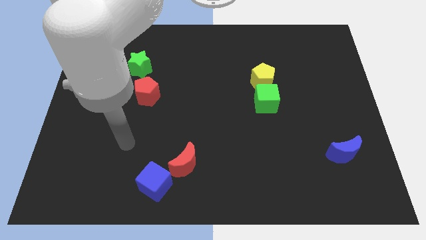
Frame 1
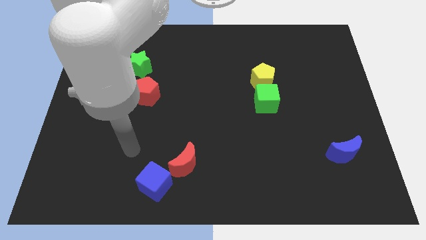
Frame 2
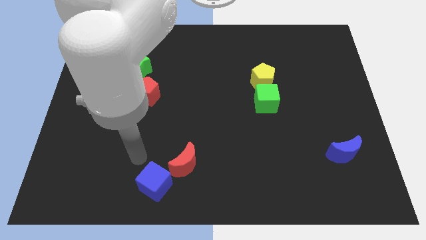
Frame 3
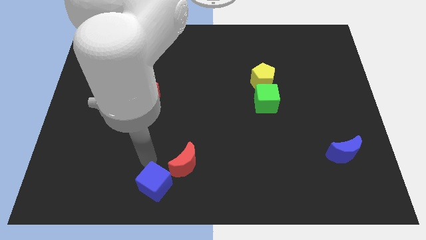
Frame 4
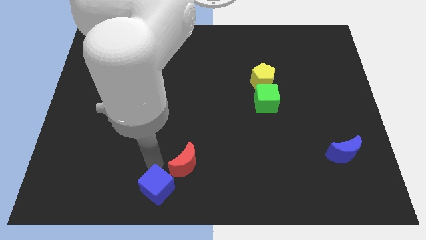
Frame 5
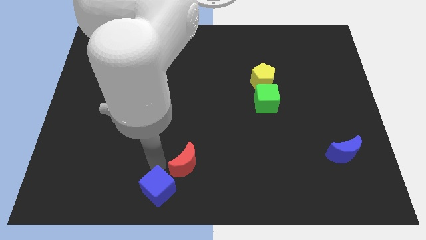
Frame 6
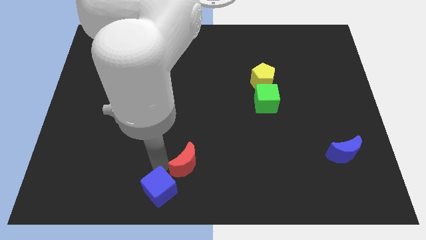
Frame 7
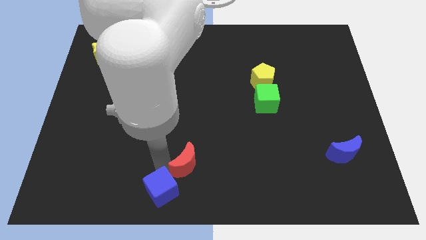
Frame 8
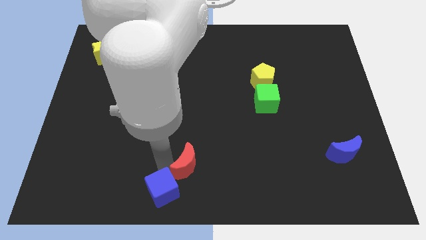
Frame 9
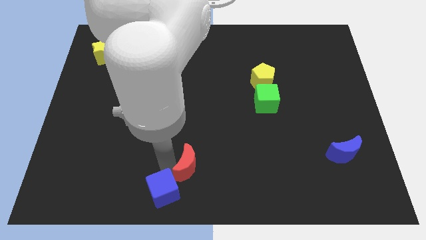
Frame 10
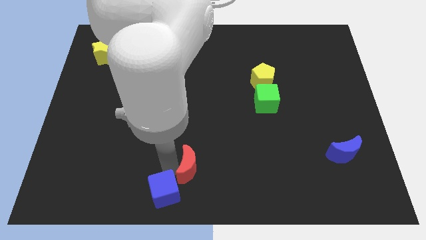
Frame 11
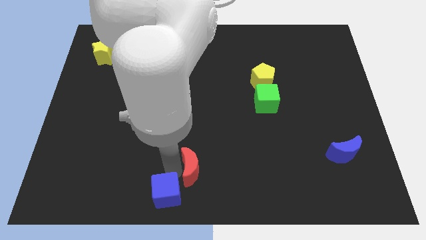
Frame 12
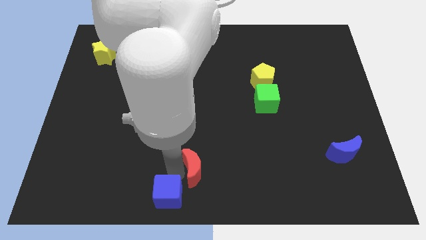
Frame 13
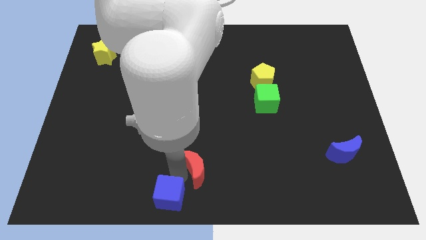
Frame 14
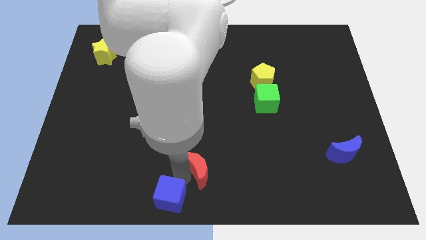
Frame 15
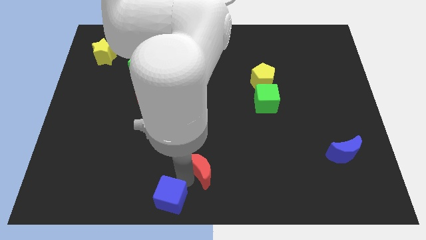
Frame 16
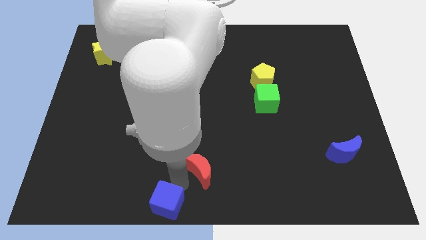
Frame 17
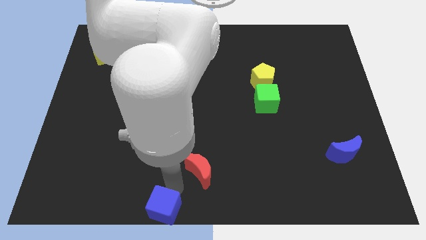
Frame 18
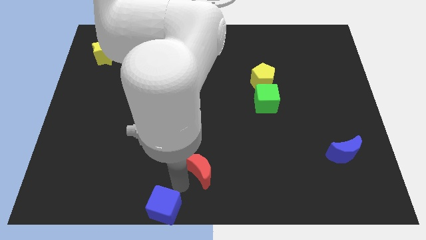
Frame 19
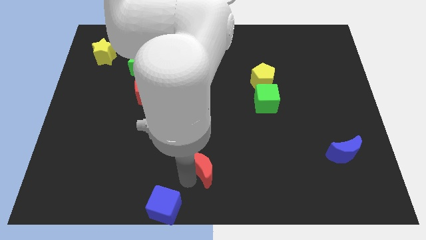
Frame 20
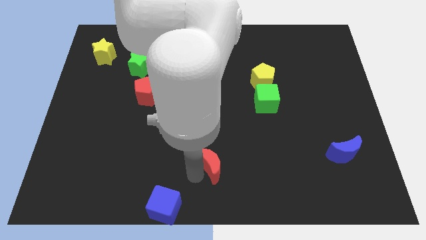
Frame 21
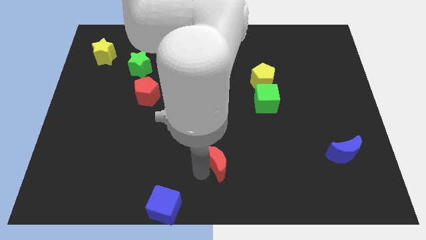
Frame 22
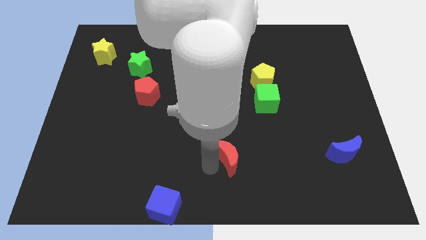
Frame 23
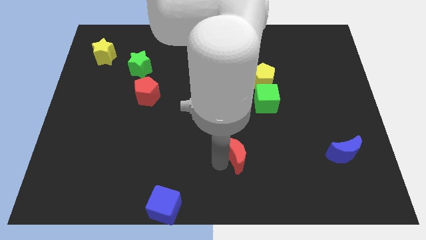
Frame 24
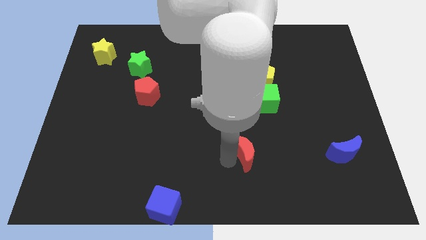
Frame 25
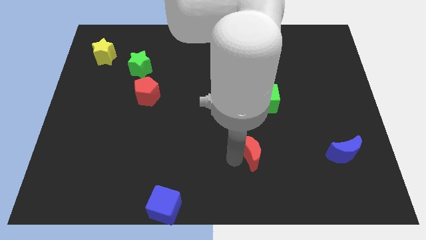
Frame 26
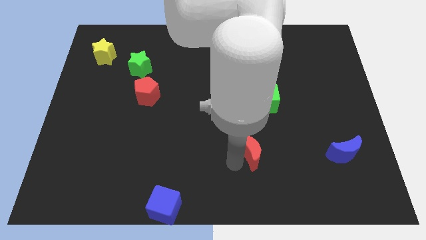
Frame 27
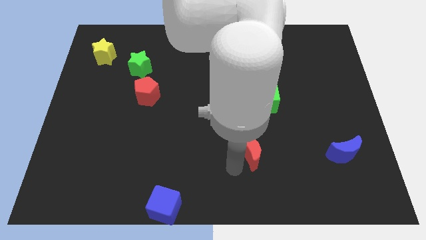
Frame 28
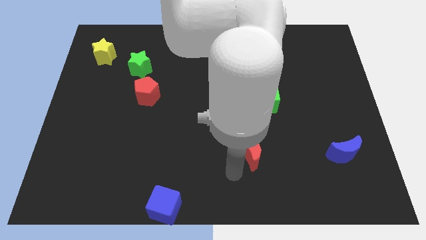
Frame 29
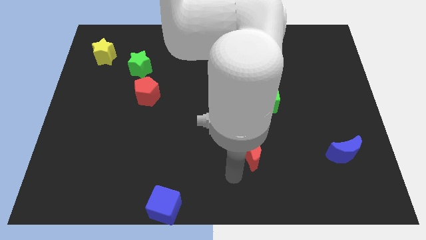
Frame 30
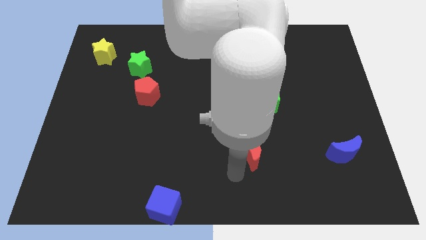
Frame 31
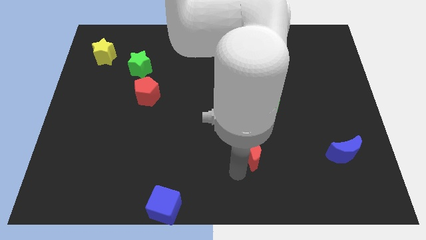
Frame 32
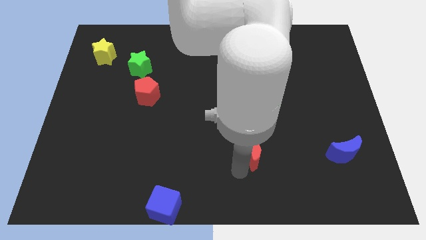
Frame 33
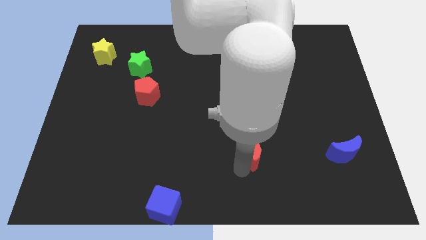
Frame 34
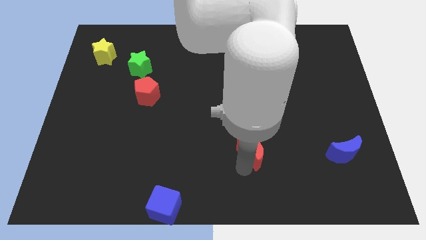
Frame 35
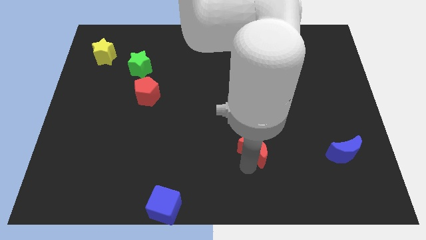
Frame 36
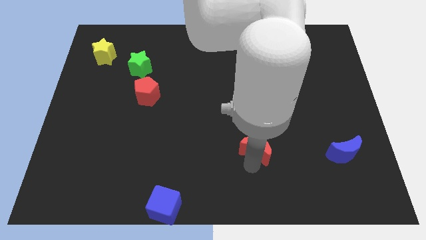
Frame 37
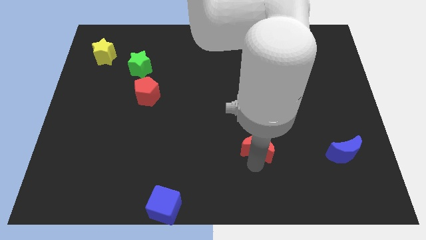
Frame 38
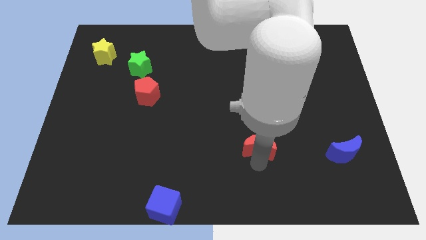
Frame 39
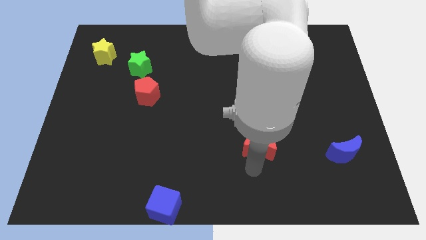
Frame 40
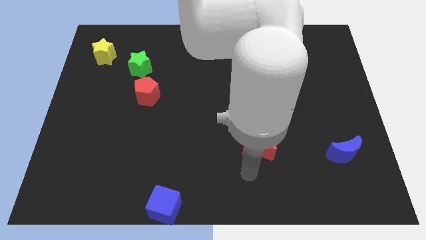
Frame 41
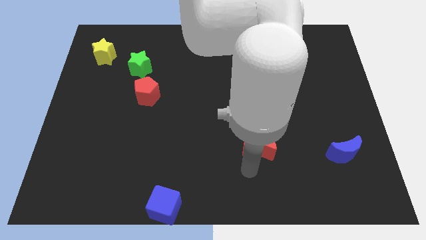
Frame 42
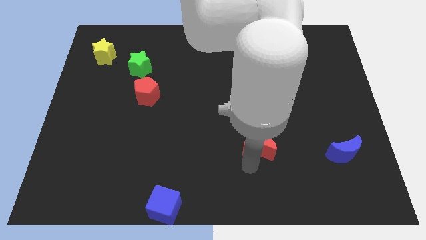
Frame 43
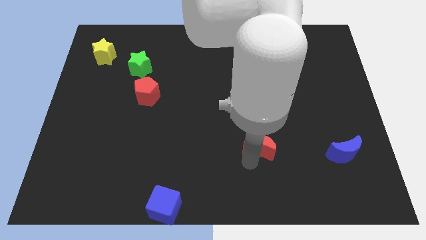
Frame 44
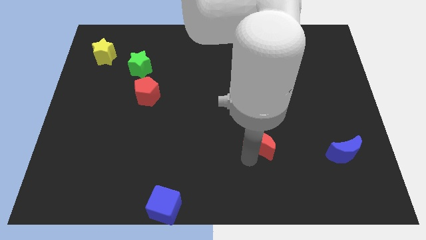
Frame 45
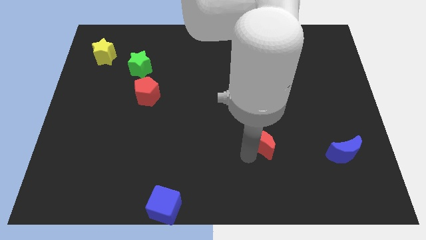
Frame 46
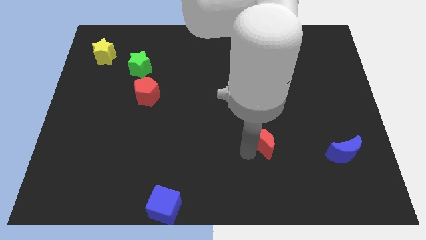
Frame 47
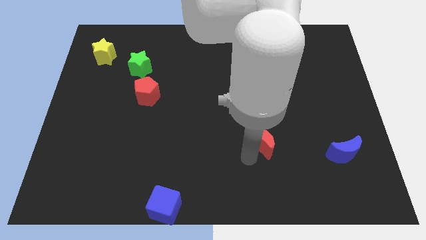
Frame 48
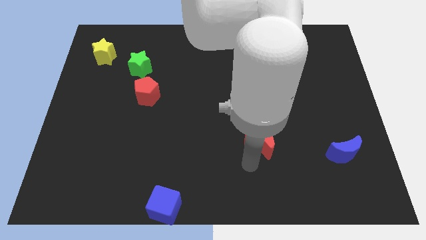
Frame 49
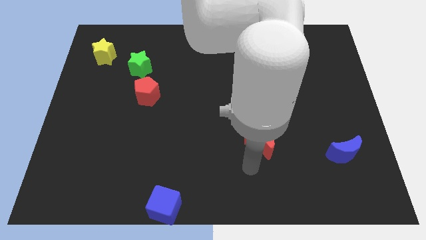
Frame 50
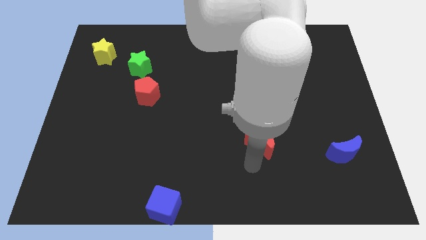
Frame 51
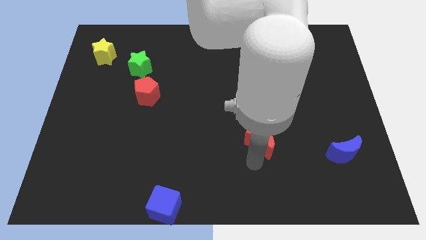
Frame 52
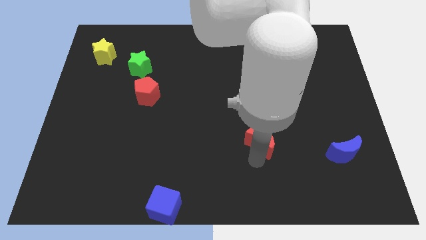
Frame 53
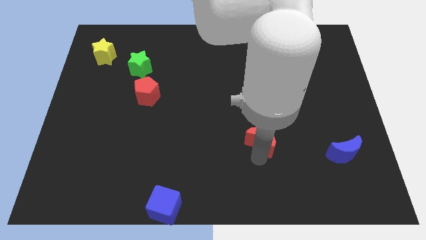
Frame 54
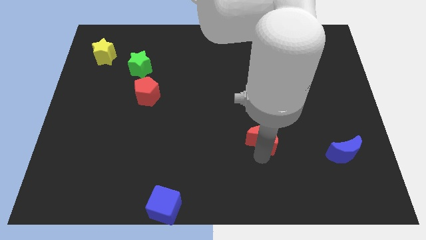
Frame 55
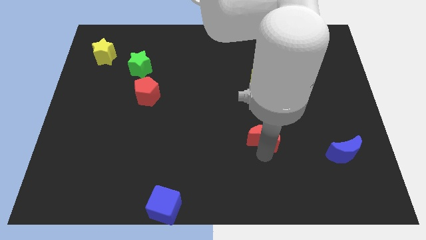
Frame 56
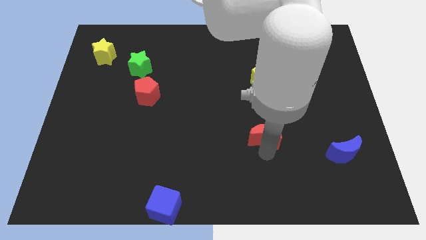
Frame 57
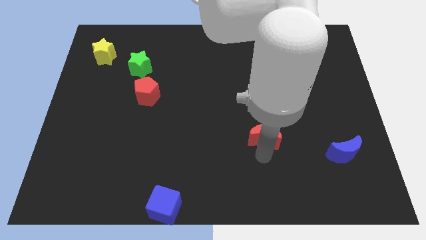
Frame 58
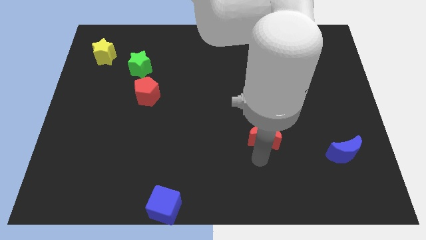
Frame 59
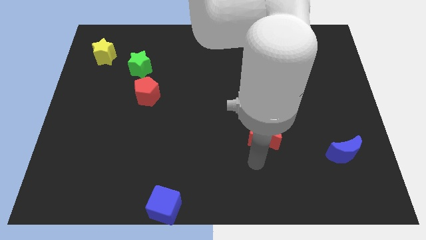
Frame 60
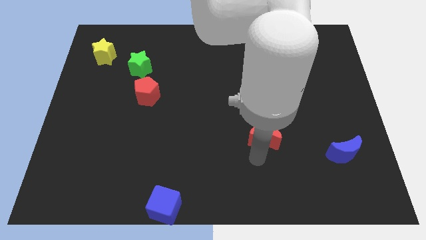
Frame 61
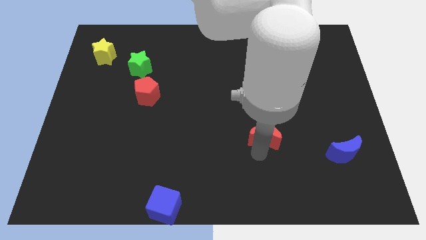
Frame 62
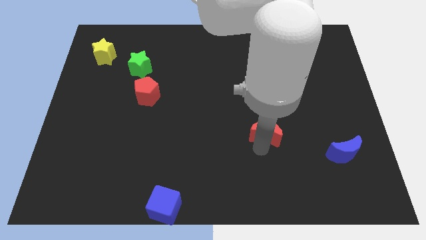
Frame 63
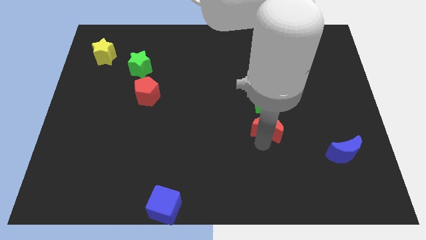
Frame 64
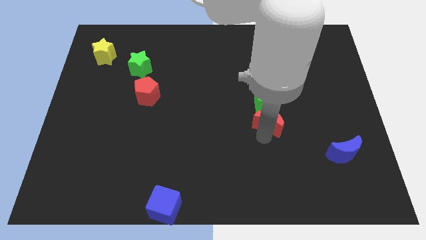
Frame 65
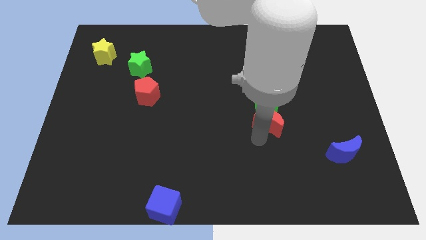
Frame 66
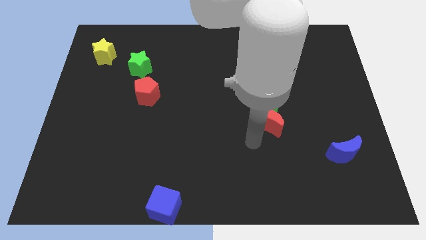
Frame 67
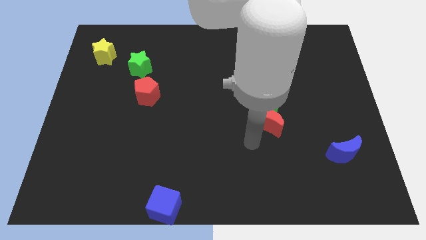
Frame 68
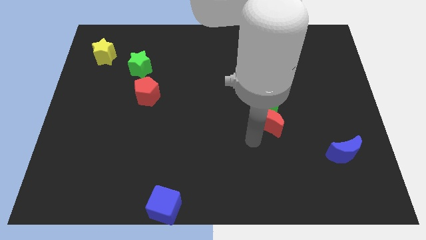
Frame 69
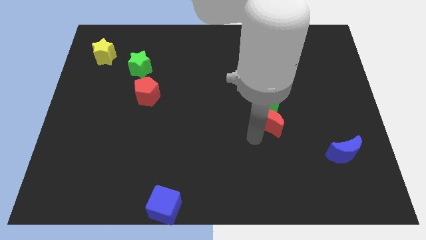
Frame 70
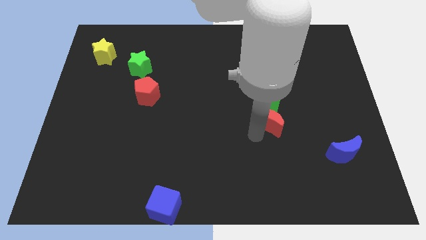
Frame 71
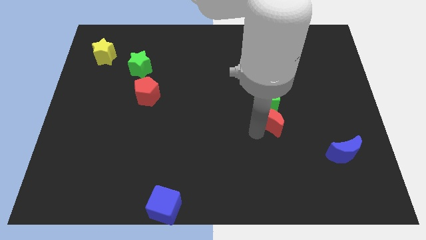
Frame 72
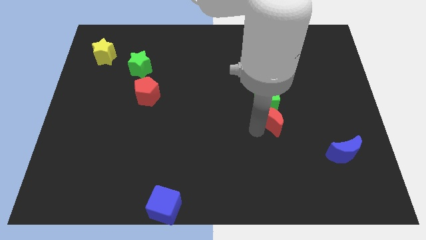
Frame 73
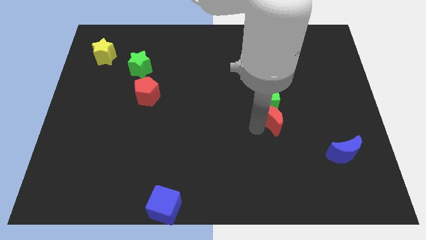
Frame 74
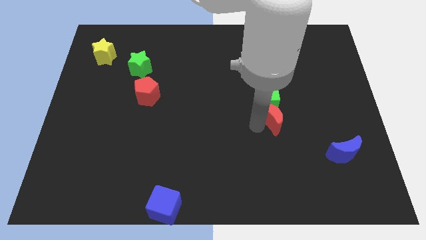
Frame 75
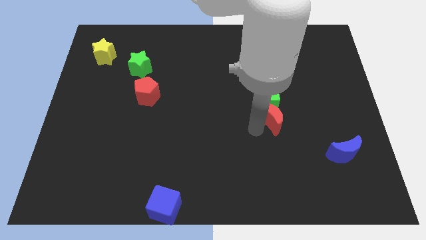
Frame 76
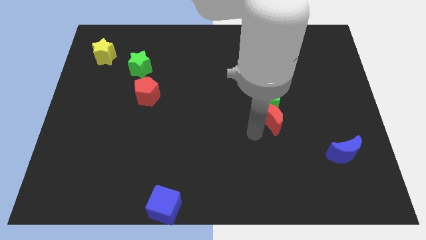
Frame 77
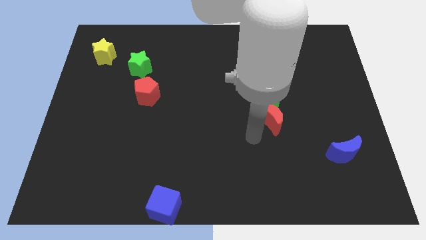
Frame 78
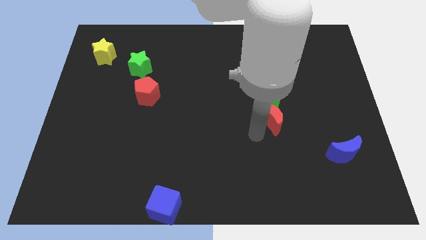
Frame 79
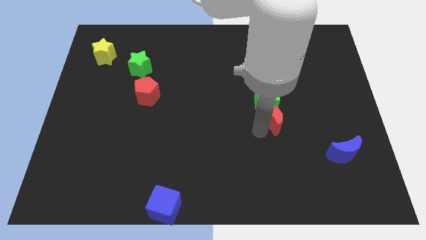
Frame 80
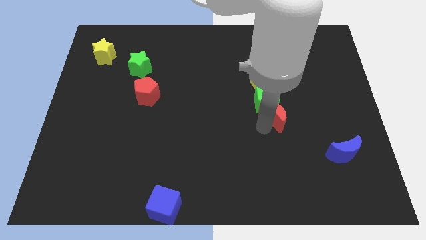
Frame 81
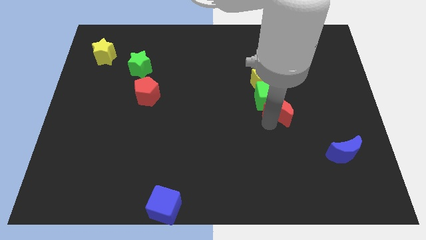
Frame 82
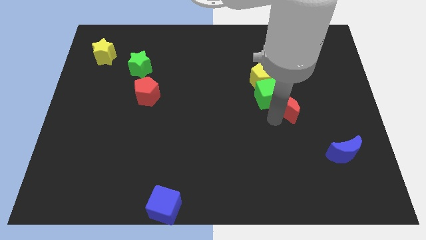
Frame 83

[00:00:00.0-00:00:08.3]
slide the red moon to the bottom right side of the yellow pentagon
